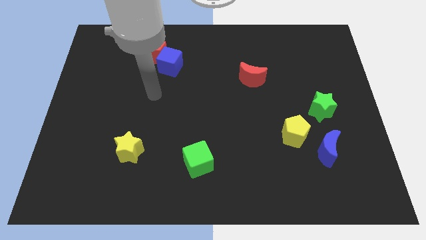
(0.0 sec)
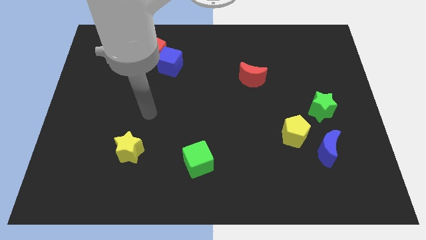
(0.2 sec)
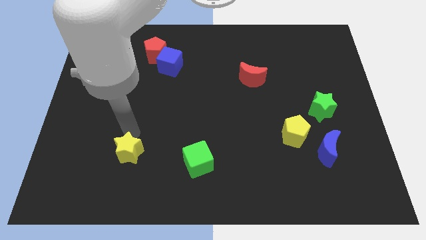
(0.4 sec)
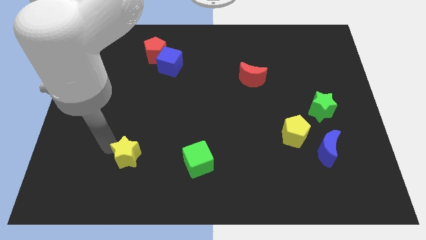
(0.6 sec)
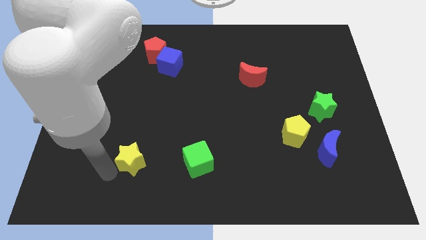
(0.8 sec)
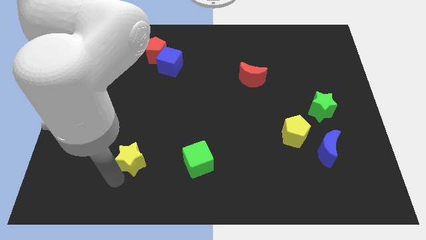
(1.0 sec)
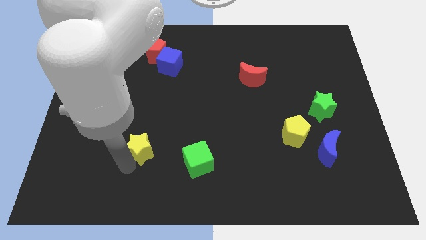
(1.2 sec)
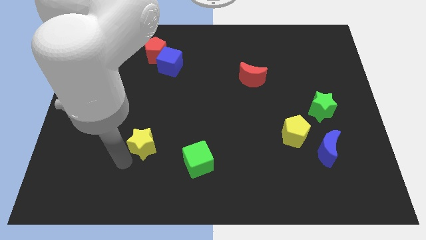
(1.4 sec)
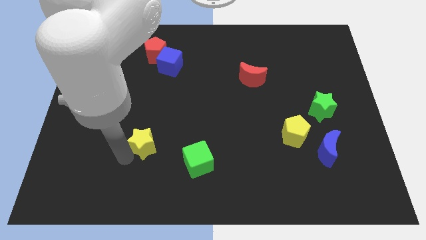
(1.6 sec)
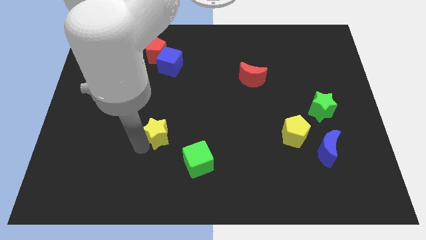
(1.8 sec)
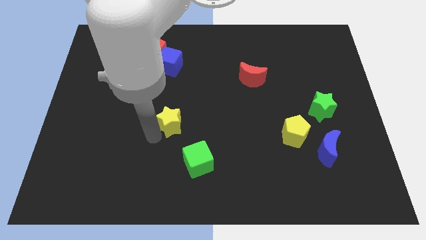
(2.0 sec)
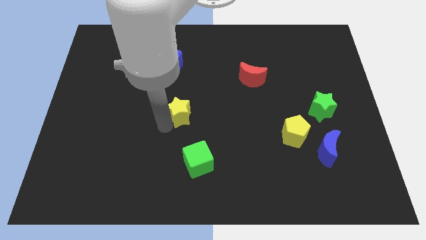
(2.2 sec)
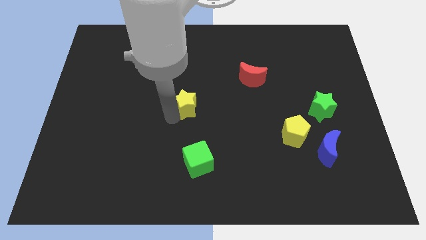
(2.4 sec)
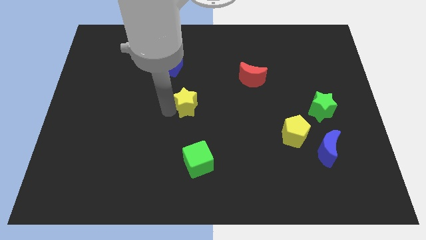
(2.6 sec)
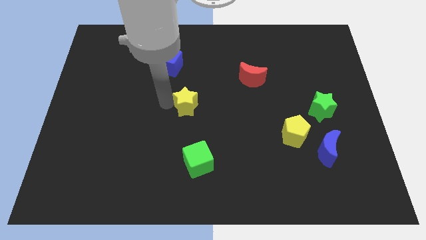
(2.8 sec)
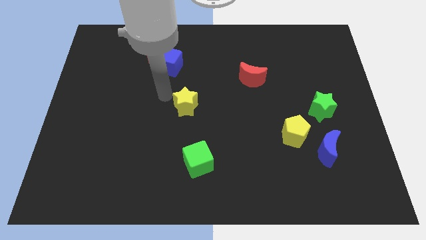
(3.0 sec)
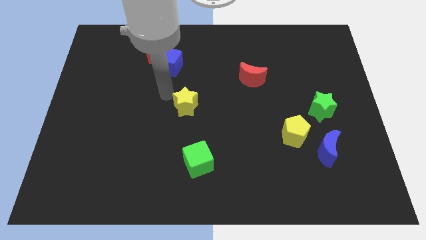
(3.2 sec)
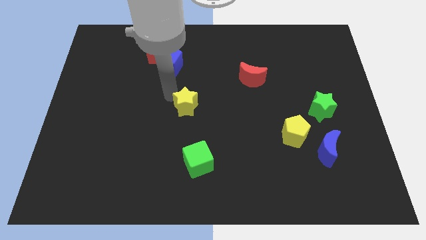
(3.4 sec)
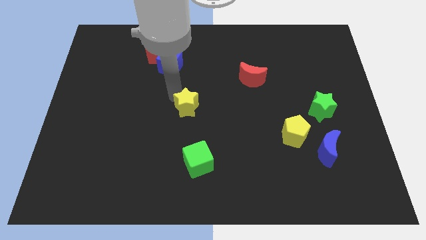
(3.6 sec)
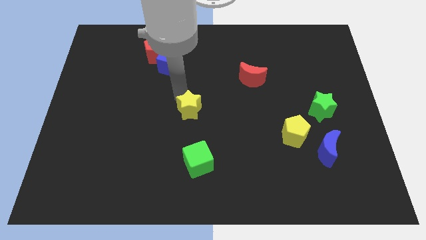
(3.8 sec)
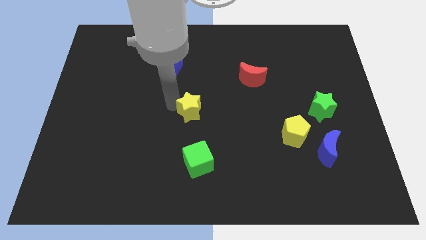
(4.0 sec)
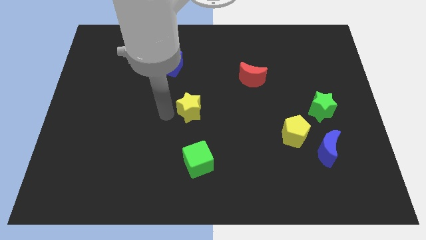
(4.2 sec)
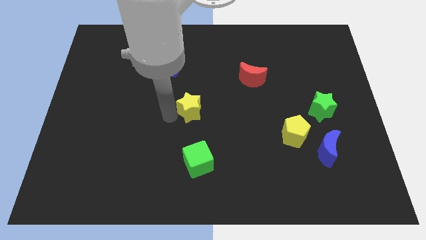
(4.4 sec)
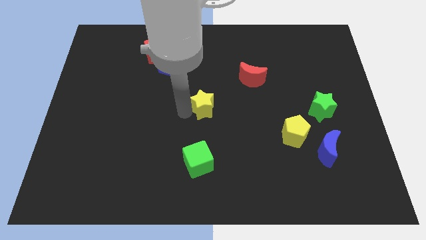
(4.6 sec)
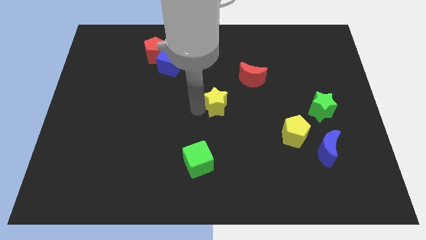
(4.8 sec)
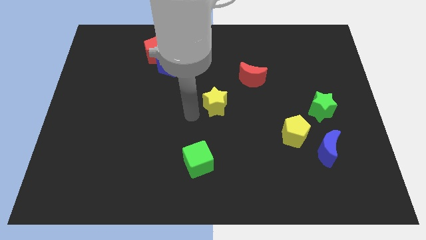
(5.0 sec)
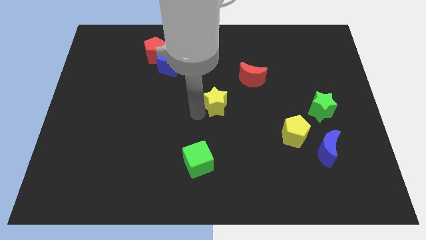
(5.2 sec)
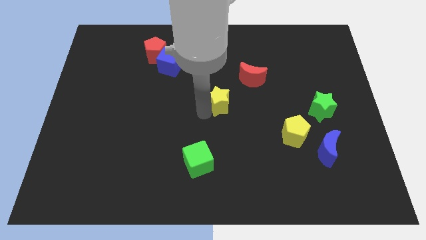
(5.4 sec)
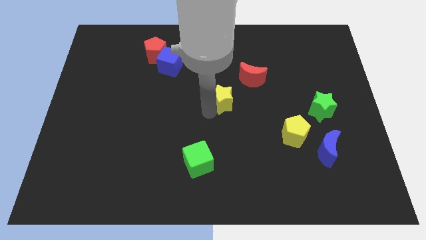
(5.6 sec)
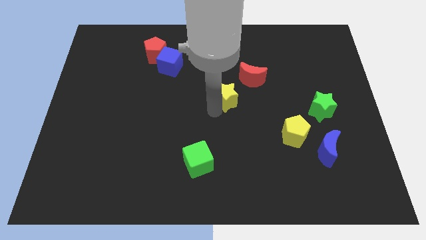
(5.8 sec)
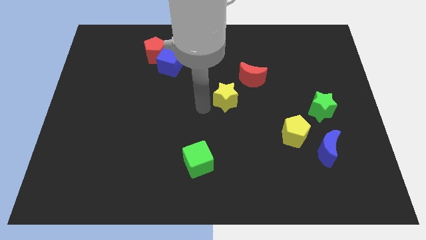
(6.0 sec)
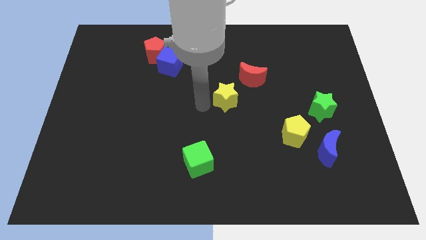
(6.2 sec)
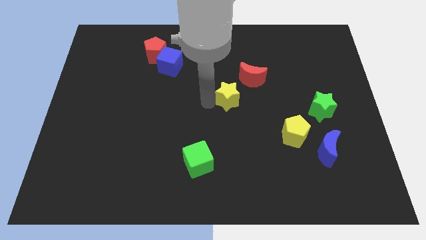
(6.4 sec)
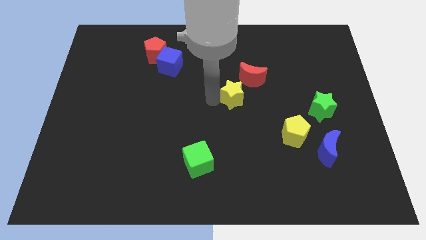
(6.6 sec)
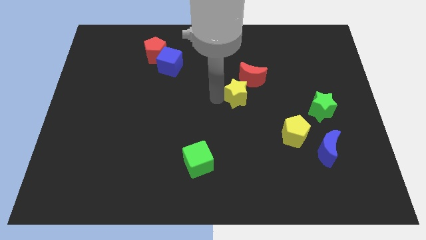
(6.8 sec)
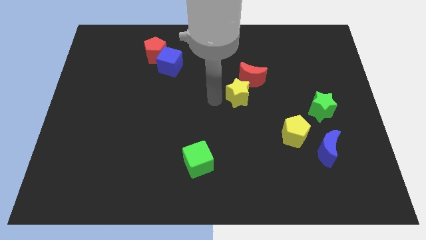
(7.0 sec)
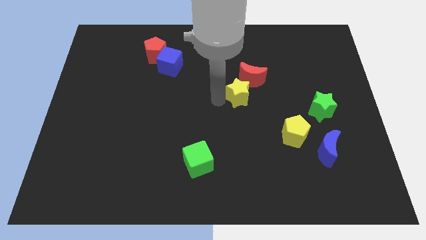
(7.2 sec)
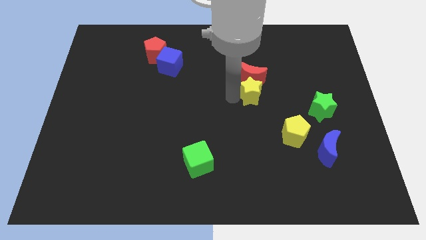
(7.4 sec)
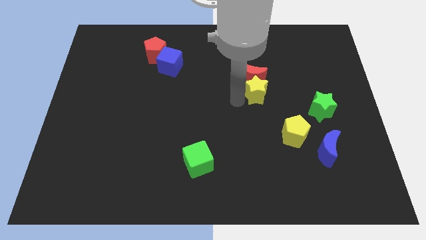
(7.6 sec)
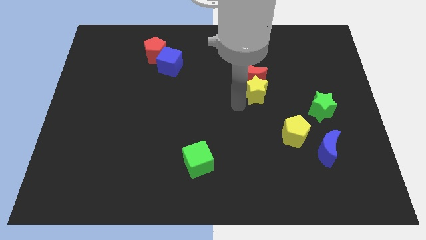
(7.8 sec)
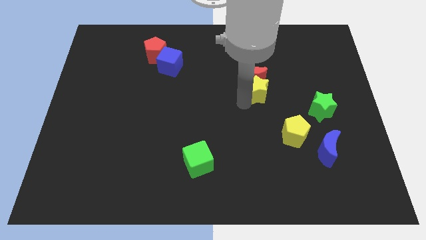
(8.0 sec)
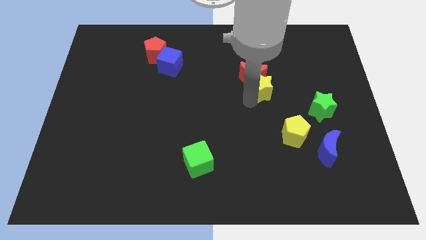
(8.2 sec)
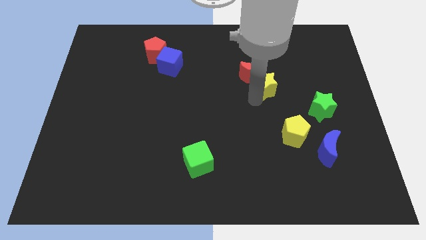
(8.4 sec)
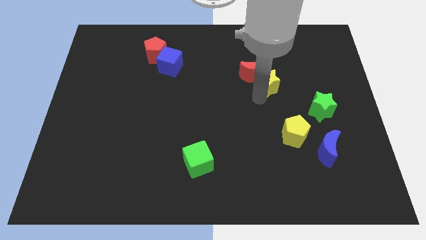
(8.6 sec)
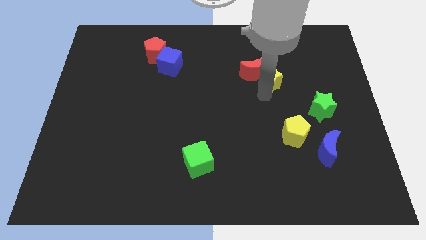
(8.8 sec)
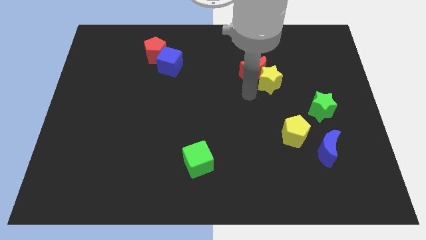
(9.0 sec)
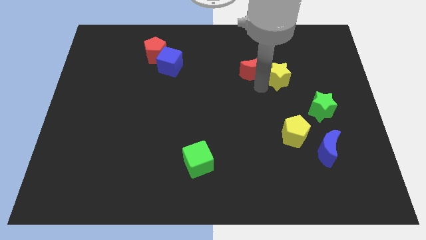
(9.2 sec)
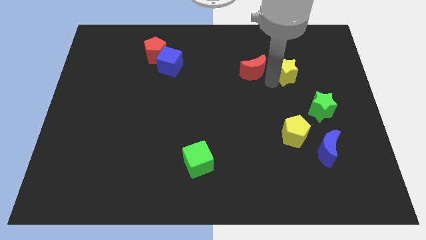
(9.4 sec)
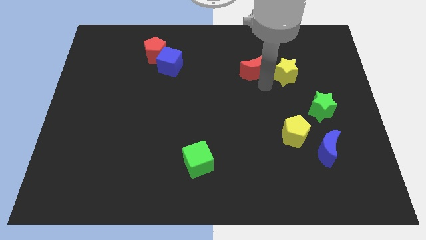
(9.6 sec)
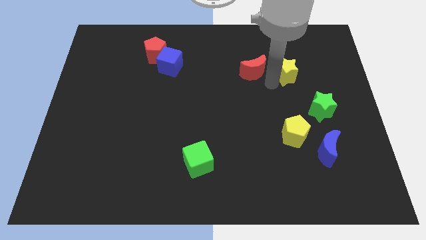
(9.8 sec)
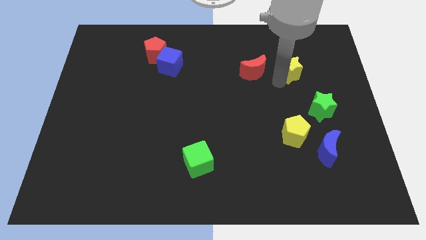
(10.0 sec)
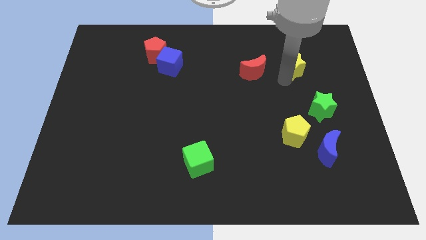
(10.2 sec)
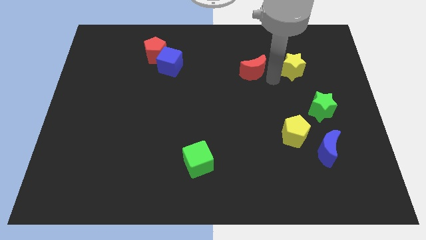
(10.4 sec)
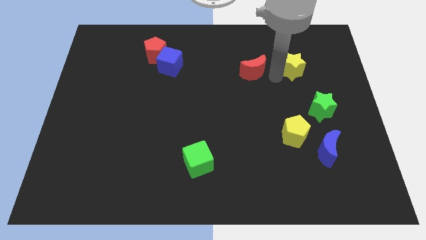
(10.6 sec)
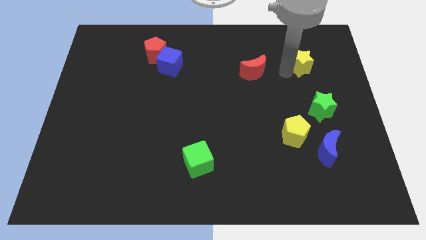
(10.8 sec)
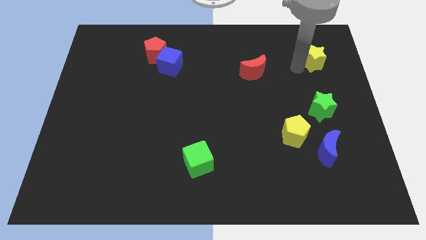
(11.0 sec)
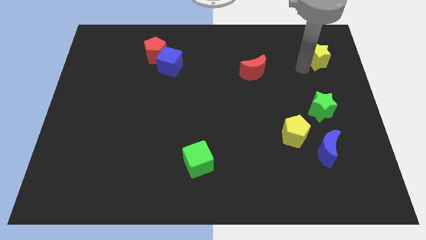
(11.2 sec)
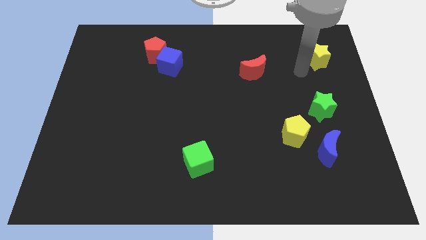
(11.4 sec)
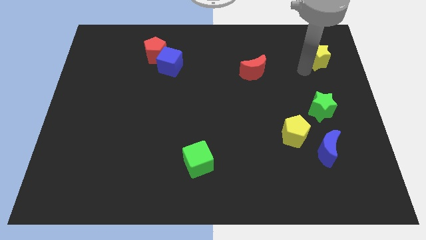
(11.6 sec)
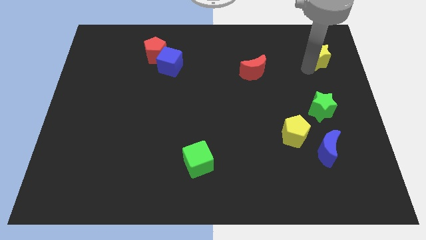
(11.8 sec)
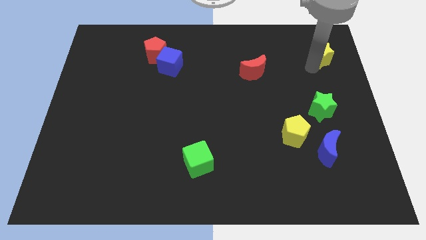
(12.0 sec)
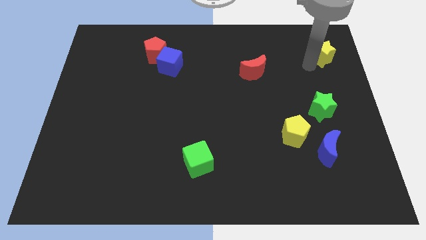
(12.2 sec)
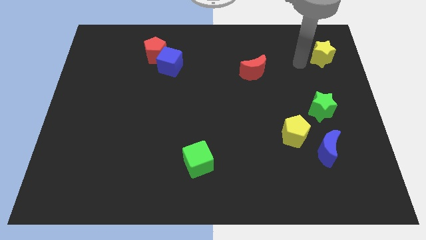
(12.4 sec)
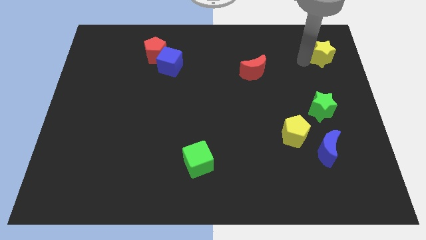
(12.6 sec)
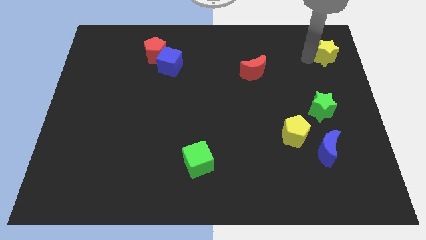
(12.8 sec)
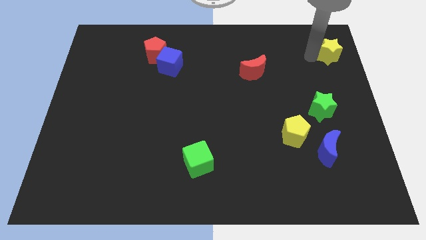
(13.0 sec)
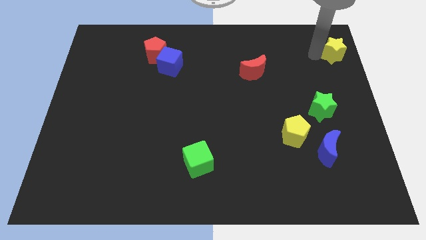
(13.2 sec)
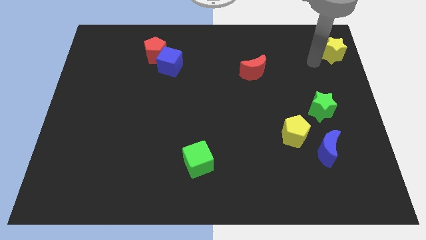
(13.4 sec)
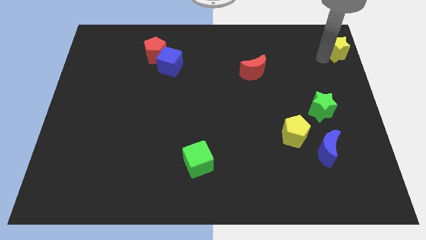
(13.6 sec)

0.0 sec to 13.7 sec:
move the yellow star to the top right
